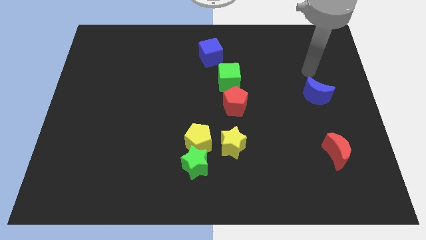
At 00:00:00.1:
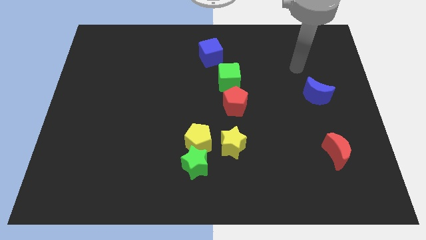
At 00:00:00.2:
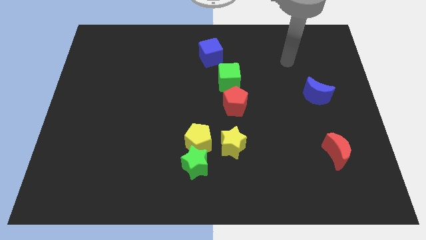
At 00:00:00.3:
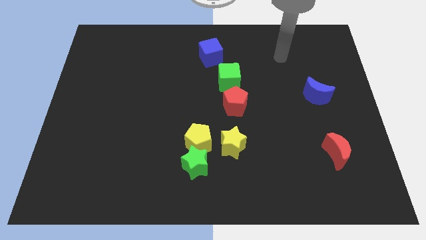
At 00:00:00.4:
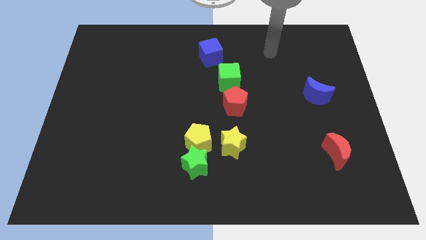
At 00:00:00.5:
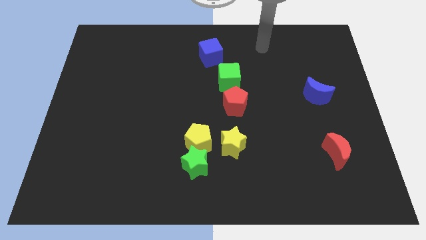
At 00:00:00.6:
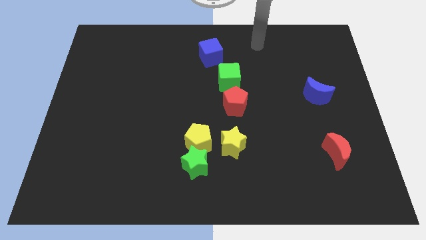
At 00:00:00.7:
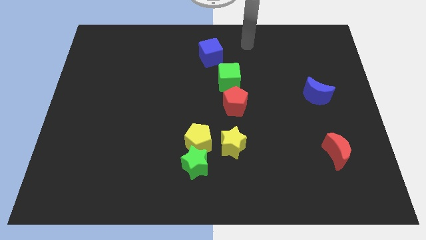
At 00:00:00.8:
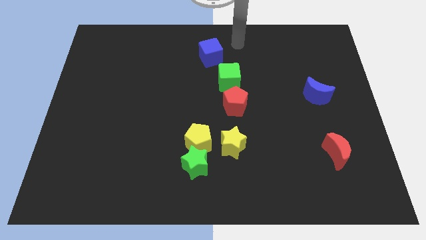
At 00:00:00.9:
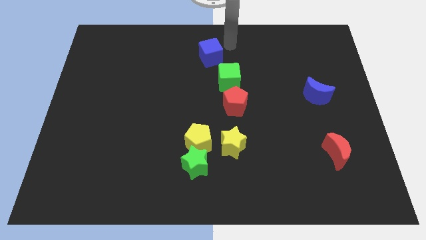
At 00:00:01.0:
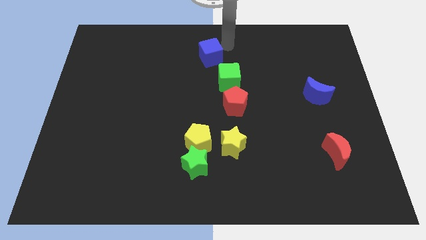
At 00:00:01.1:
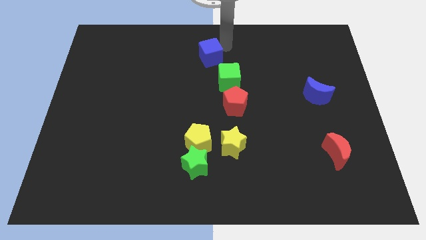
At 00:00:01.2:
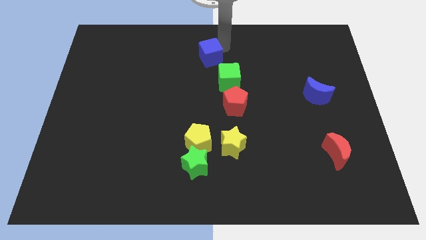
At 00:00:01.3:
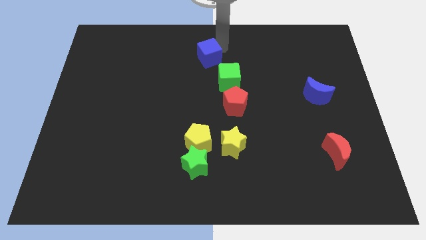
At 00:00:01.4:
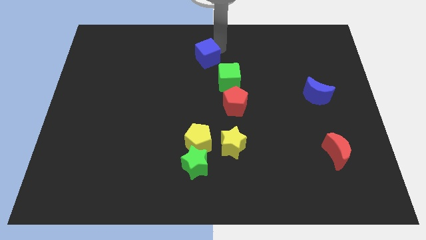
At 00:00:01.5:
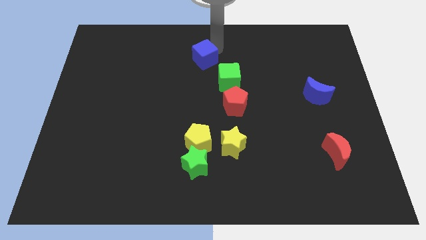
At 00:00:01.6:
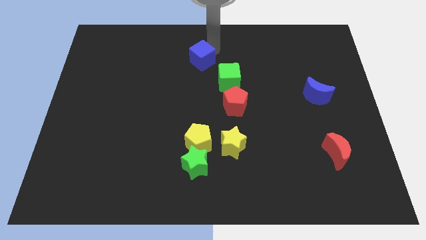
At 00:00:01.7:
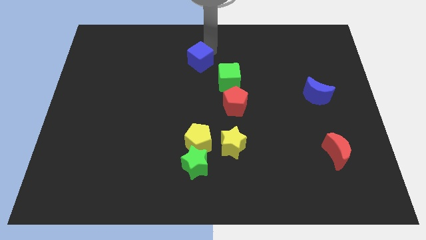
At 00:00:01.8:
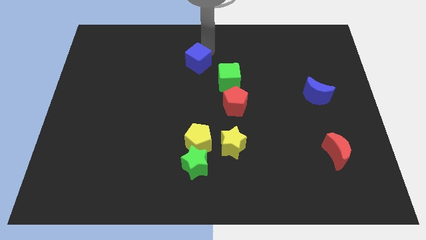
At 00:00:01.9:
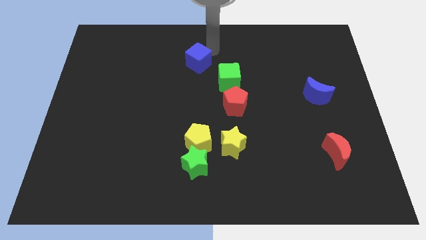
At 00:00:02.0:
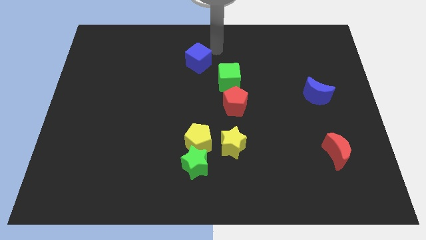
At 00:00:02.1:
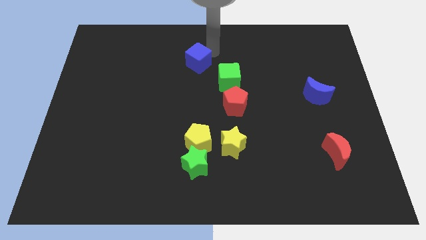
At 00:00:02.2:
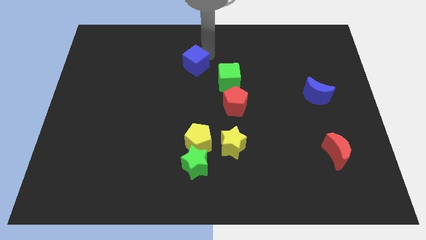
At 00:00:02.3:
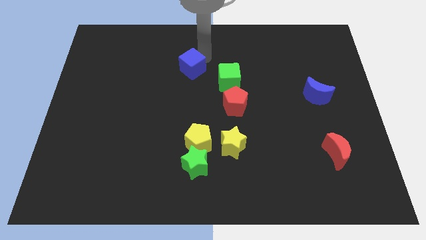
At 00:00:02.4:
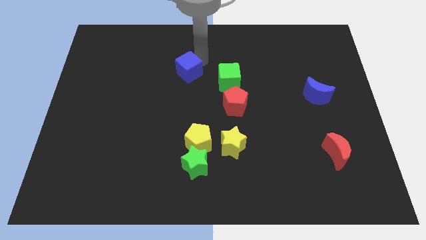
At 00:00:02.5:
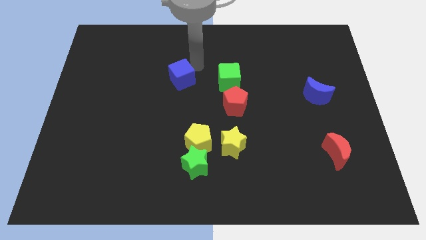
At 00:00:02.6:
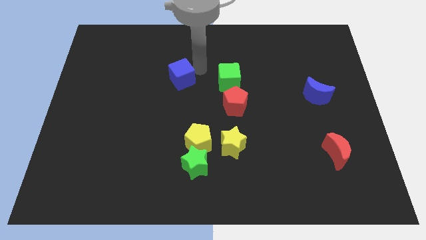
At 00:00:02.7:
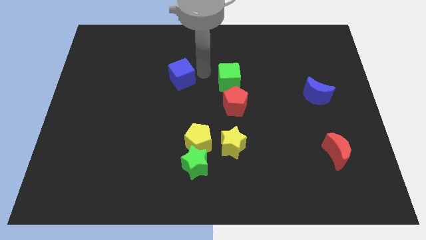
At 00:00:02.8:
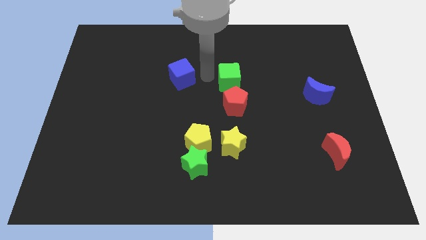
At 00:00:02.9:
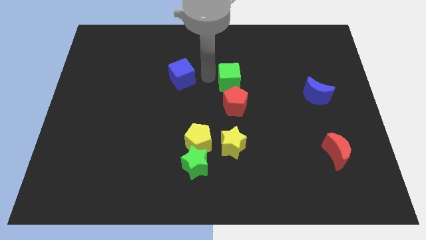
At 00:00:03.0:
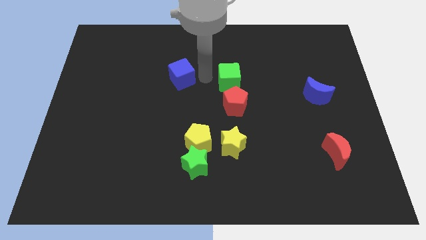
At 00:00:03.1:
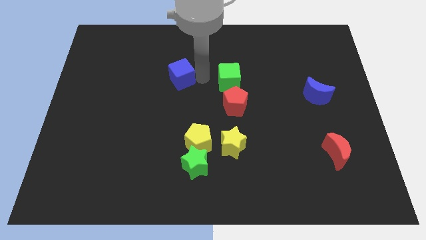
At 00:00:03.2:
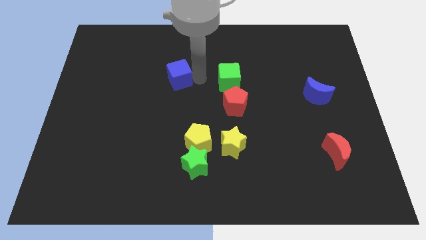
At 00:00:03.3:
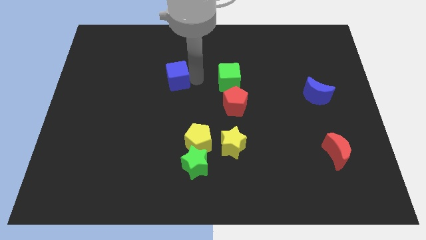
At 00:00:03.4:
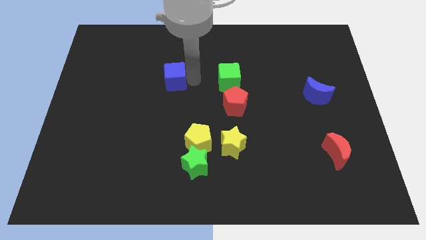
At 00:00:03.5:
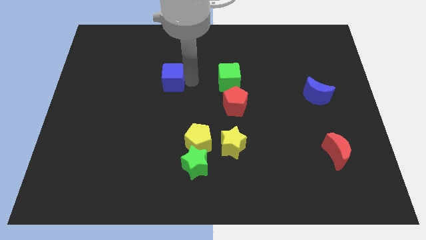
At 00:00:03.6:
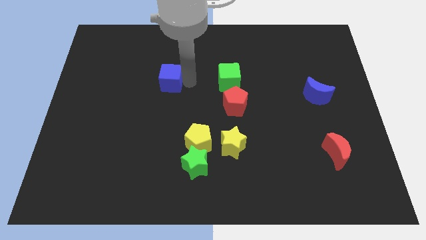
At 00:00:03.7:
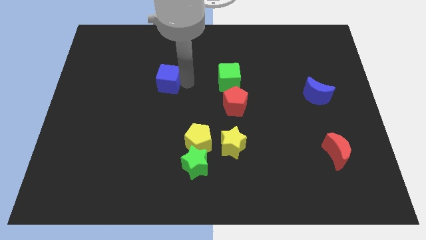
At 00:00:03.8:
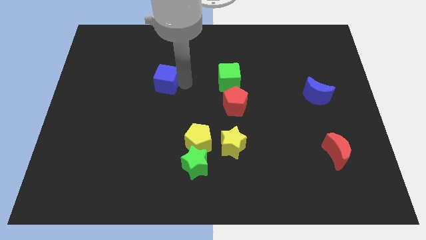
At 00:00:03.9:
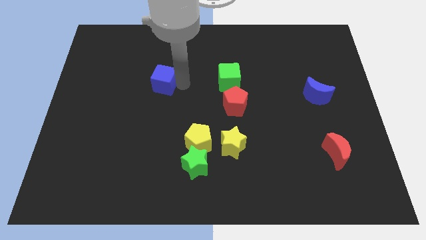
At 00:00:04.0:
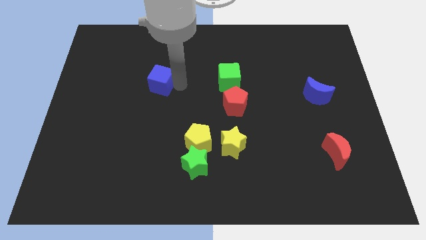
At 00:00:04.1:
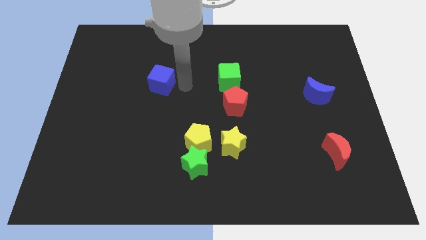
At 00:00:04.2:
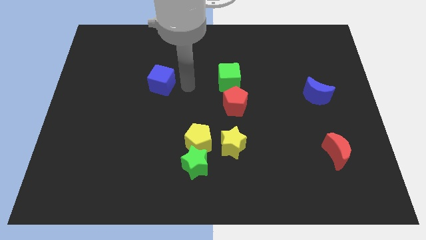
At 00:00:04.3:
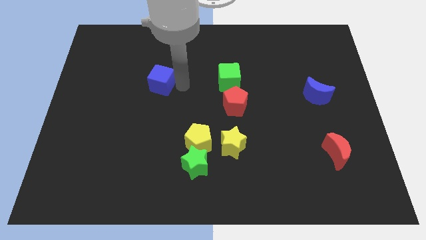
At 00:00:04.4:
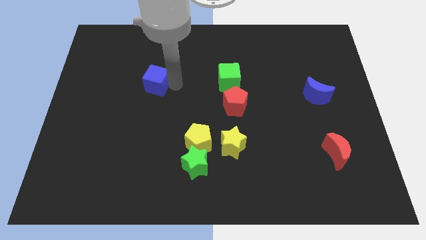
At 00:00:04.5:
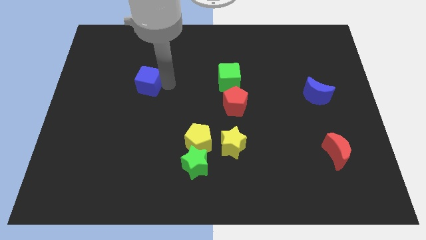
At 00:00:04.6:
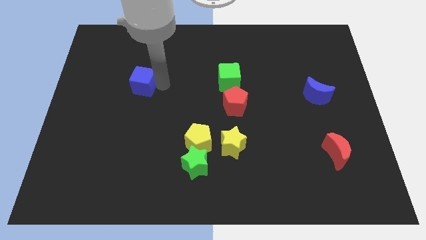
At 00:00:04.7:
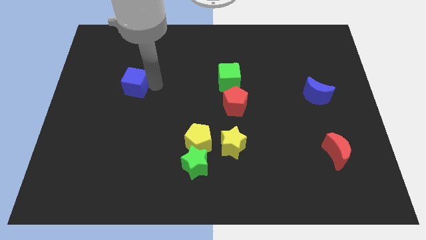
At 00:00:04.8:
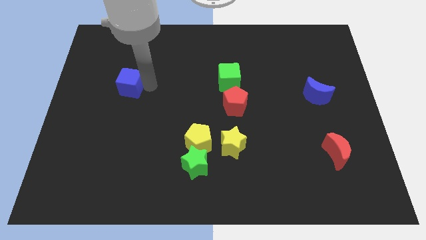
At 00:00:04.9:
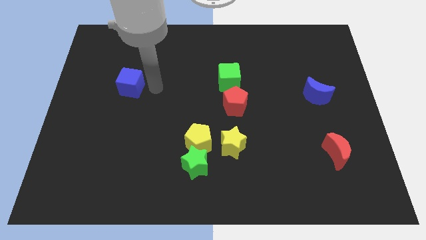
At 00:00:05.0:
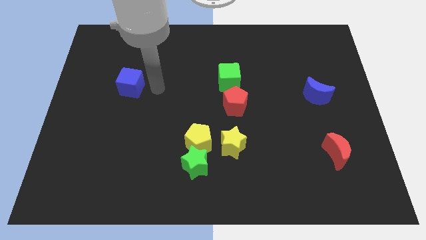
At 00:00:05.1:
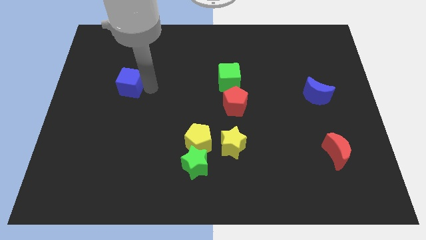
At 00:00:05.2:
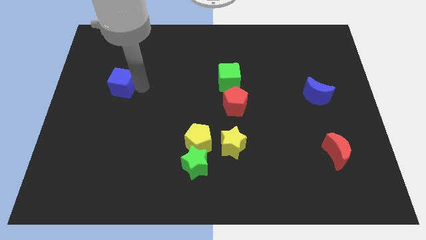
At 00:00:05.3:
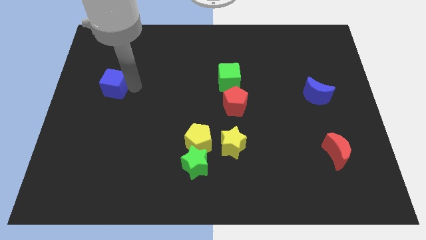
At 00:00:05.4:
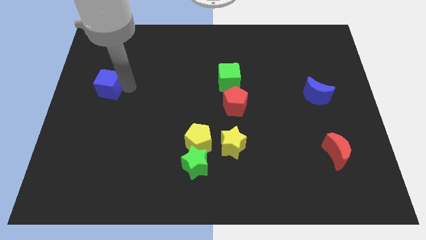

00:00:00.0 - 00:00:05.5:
slide the blue cube to the left side of the board

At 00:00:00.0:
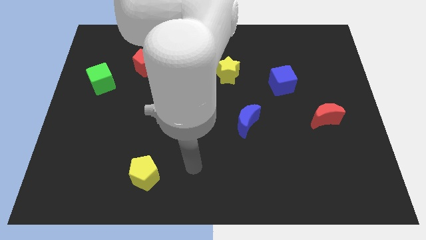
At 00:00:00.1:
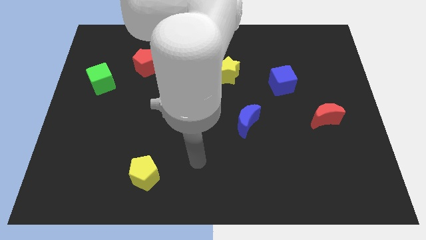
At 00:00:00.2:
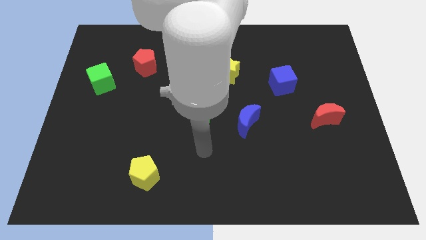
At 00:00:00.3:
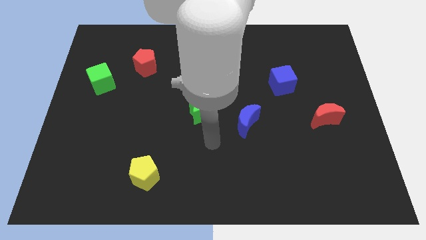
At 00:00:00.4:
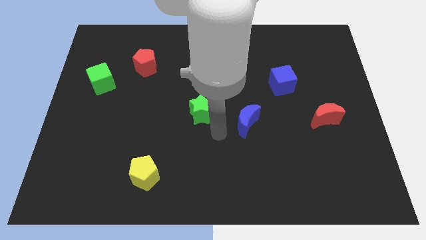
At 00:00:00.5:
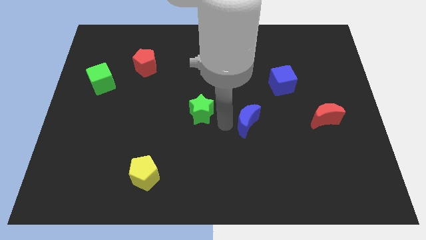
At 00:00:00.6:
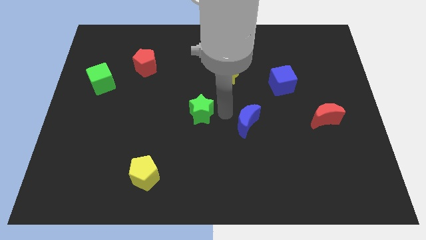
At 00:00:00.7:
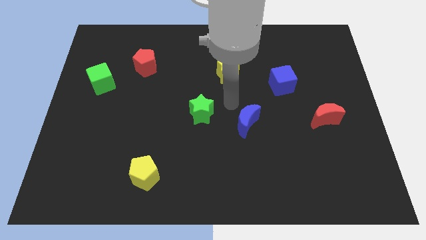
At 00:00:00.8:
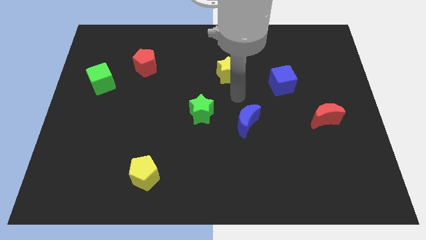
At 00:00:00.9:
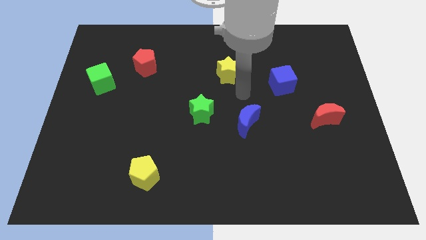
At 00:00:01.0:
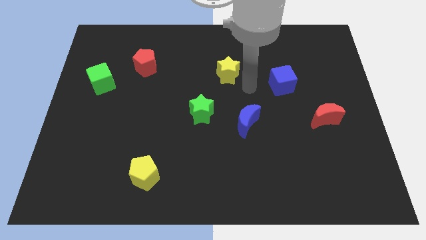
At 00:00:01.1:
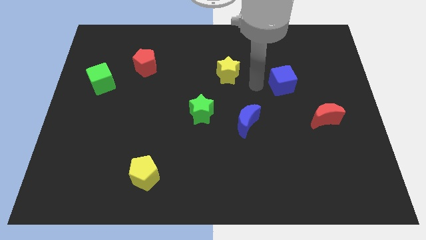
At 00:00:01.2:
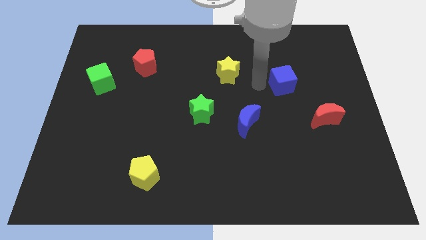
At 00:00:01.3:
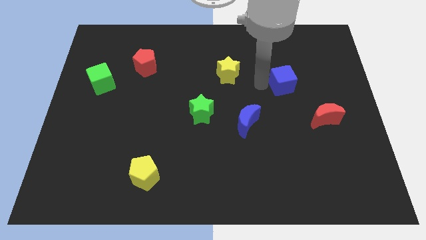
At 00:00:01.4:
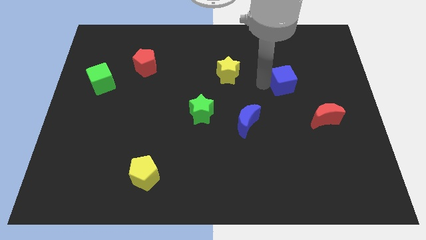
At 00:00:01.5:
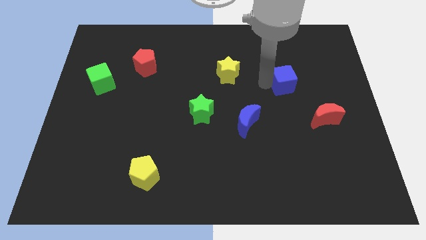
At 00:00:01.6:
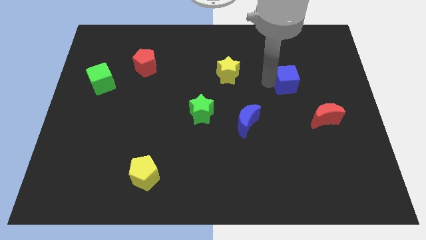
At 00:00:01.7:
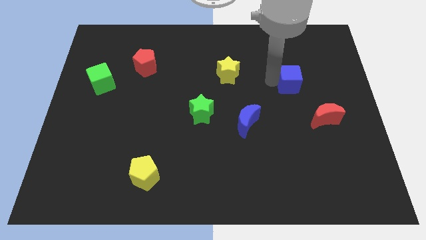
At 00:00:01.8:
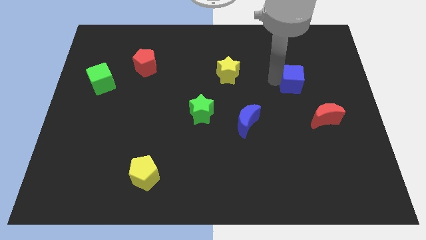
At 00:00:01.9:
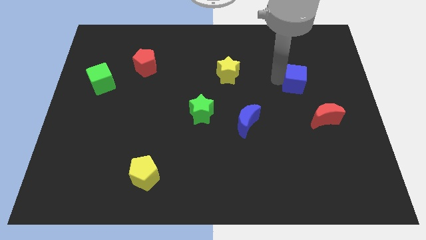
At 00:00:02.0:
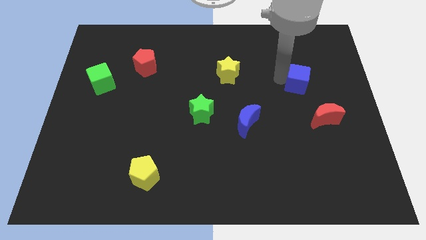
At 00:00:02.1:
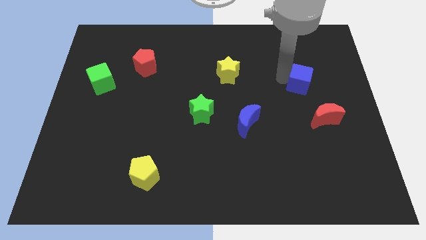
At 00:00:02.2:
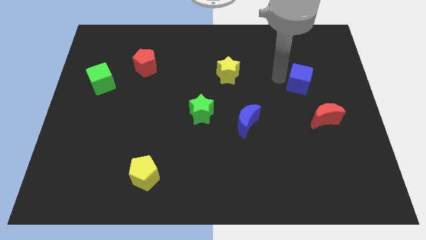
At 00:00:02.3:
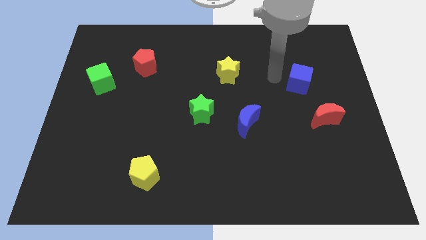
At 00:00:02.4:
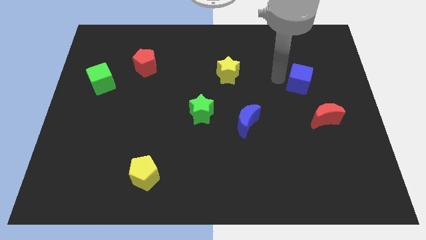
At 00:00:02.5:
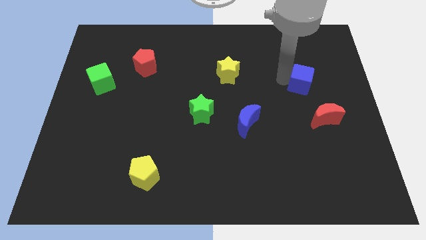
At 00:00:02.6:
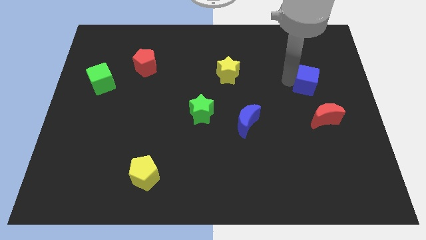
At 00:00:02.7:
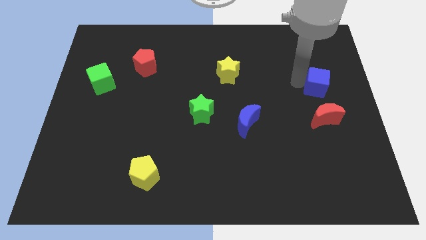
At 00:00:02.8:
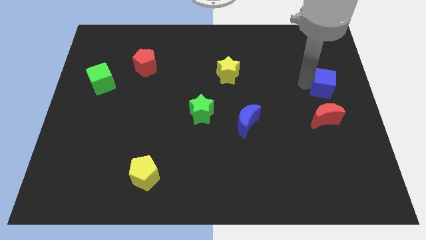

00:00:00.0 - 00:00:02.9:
slide the blue cube to the center right
